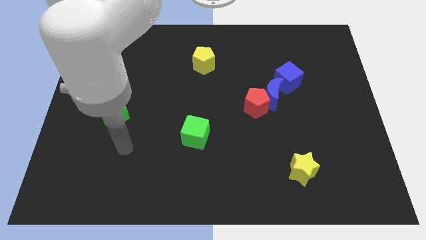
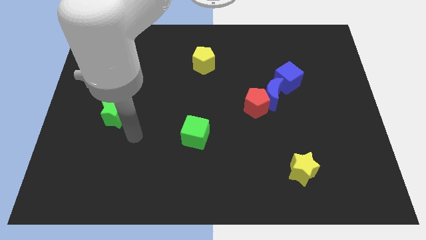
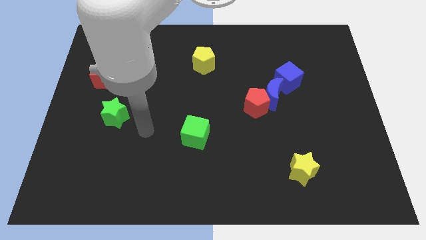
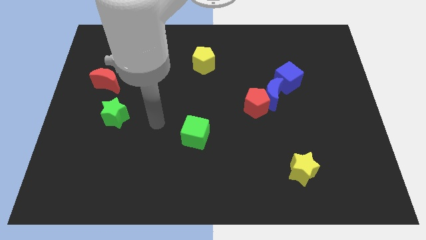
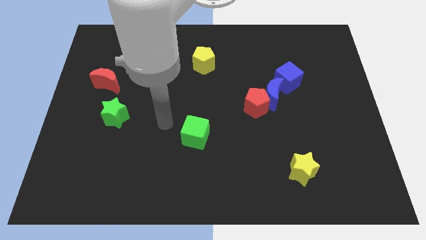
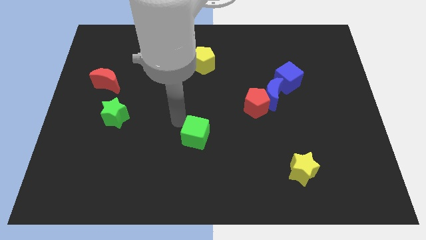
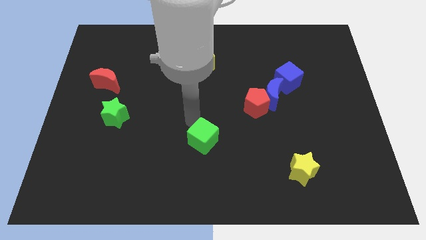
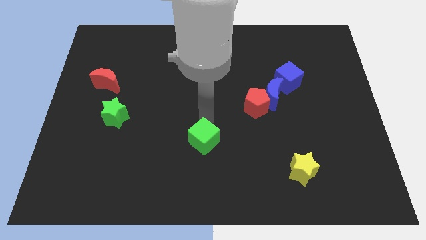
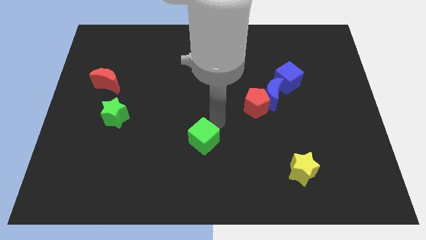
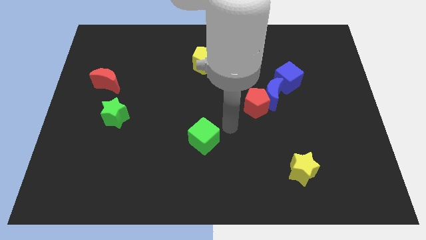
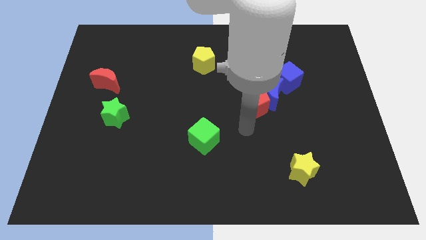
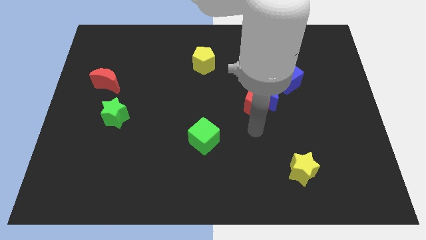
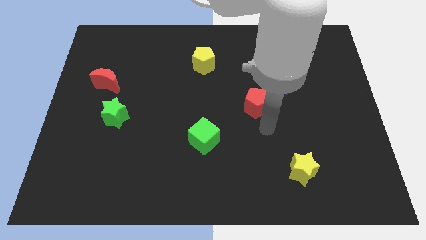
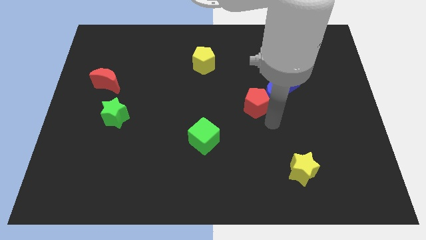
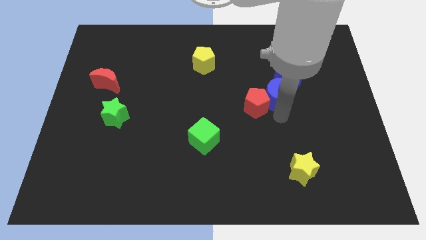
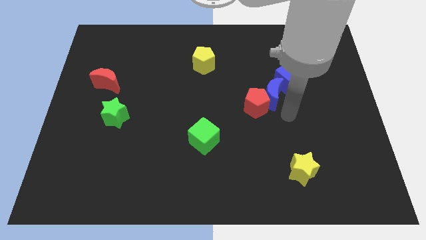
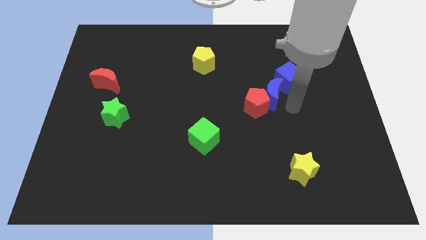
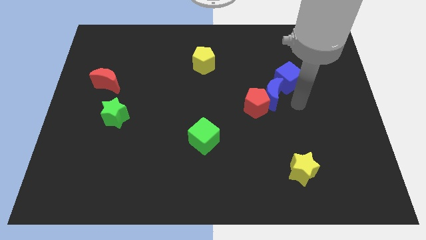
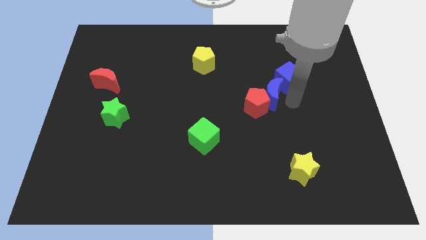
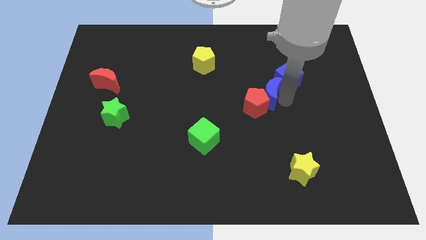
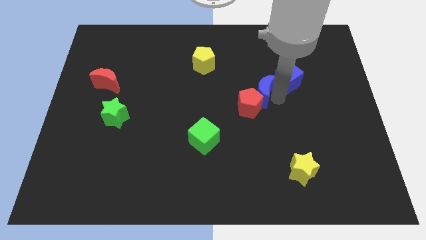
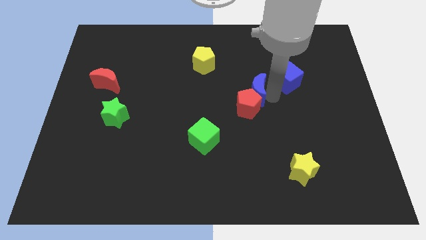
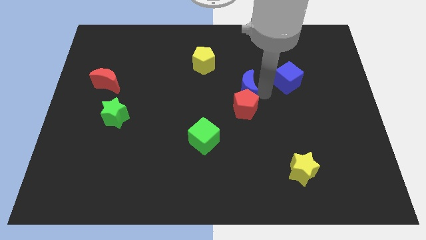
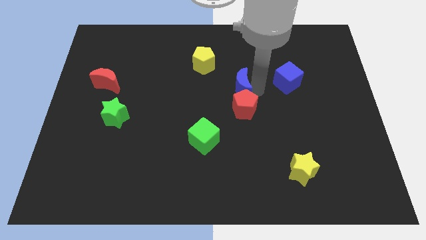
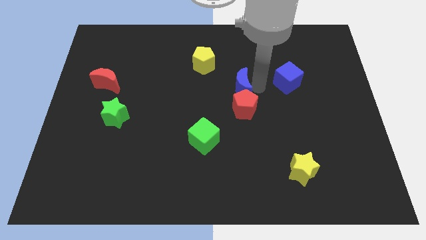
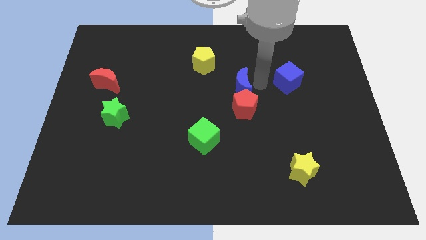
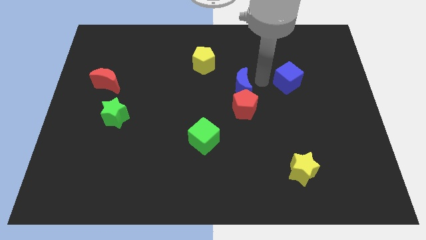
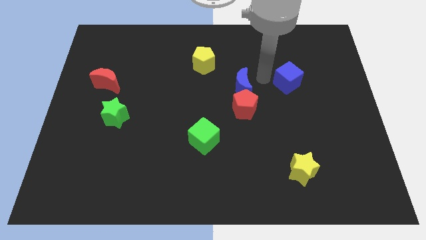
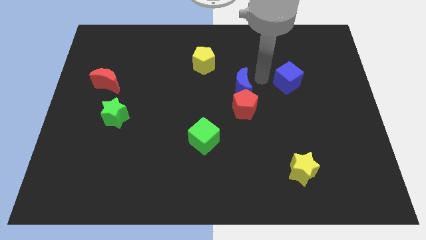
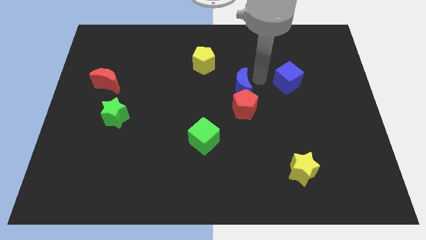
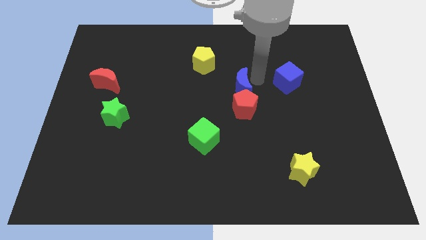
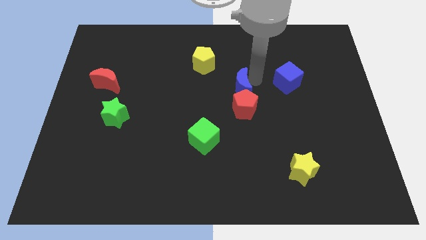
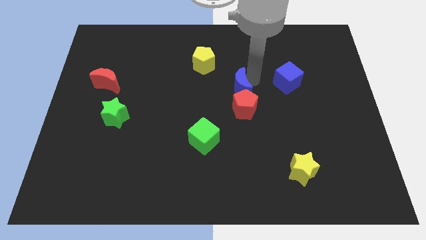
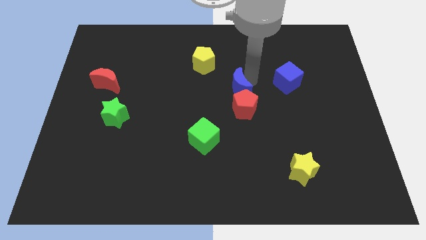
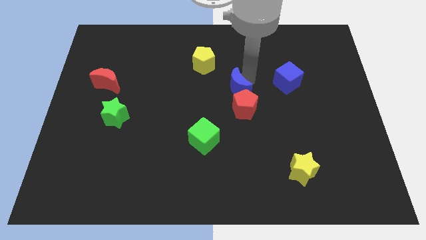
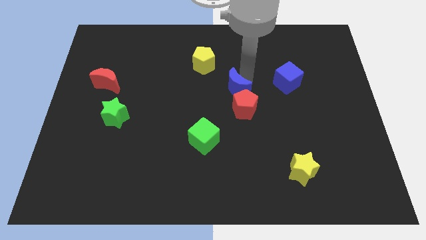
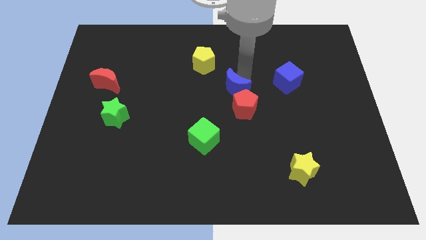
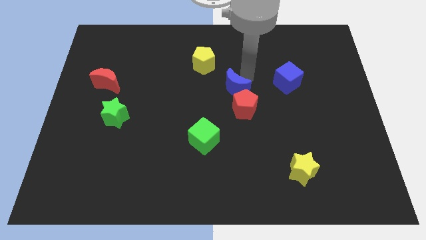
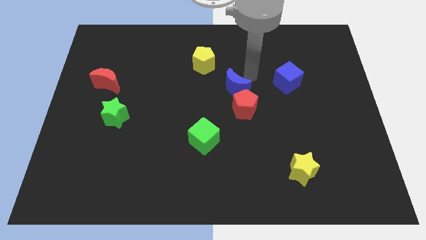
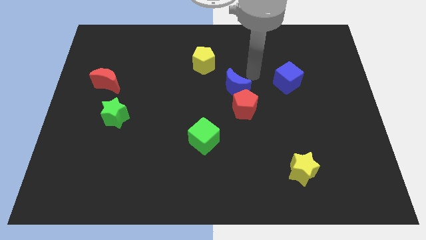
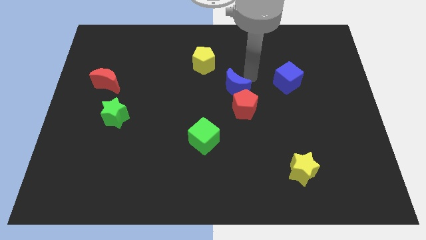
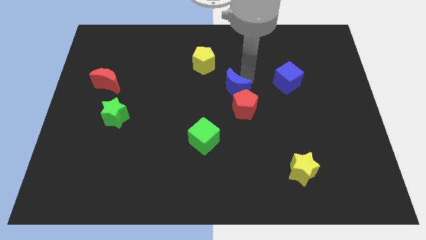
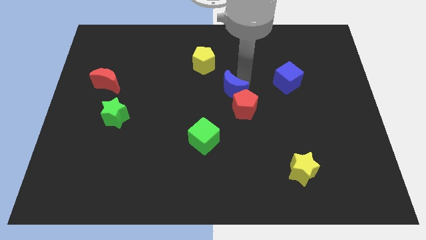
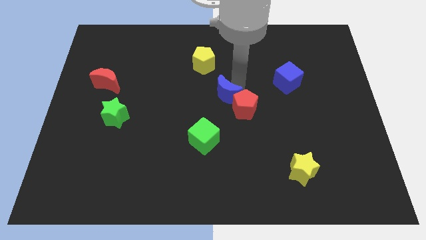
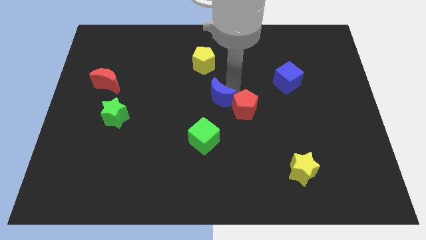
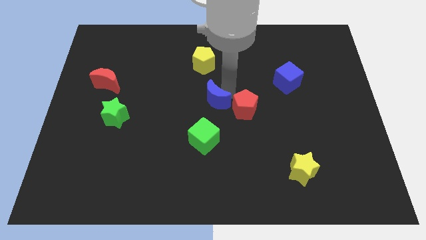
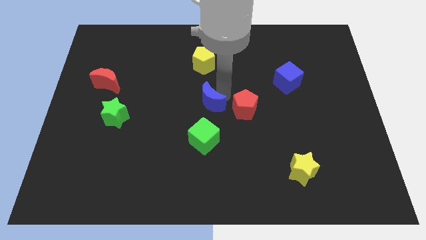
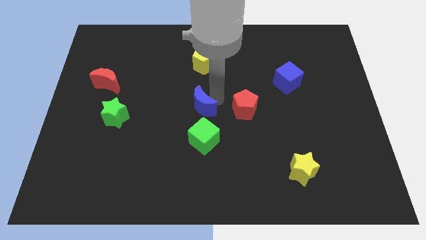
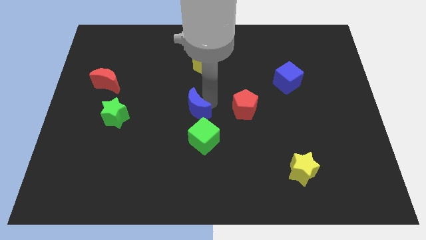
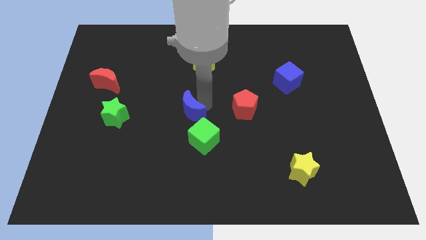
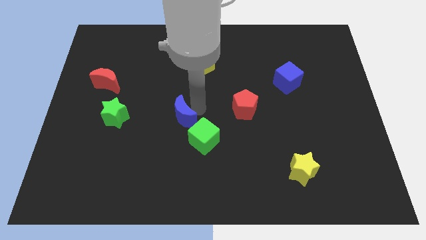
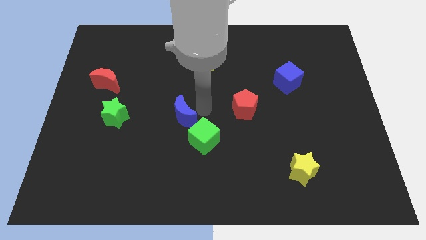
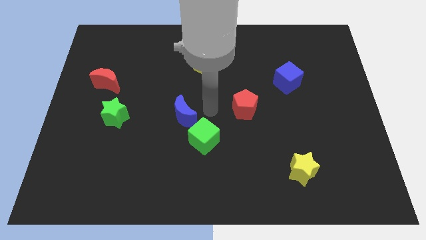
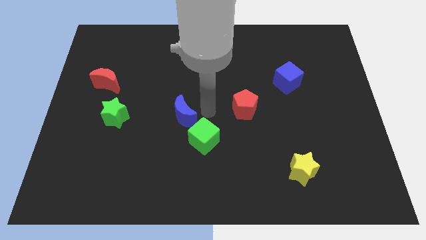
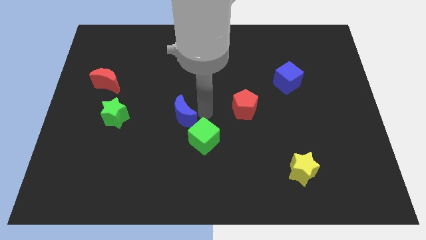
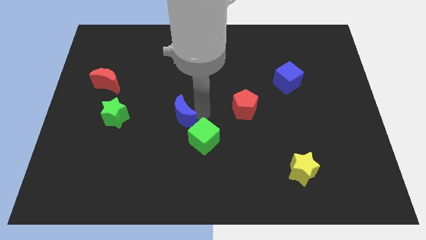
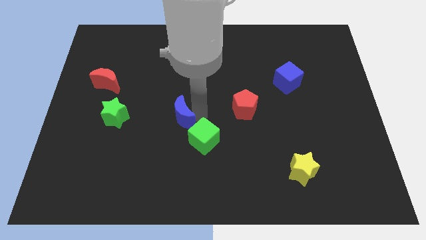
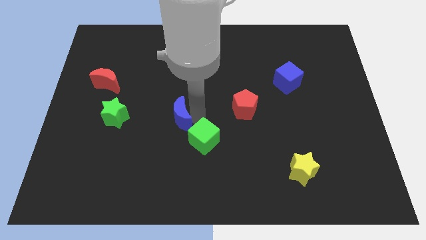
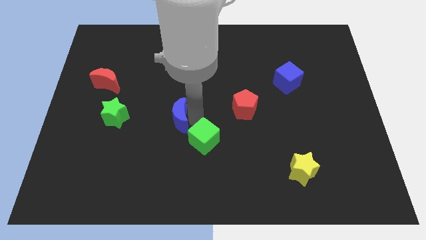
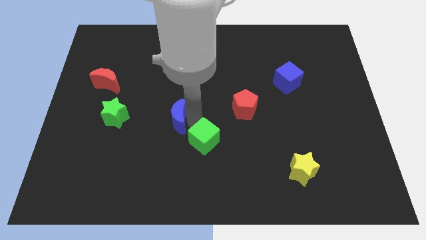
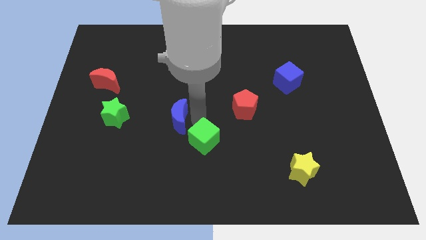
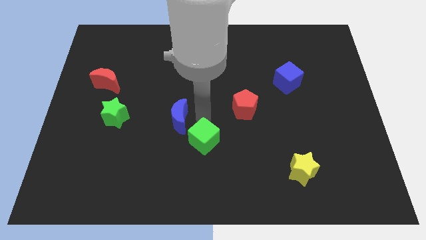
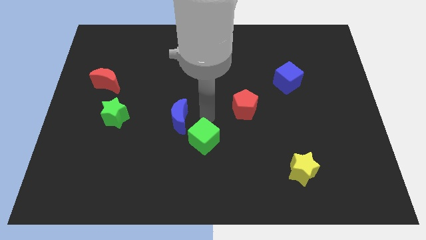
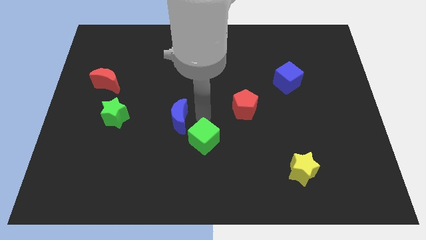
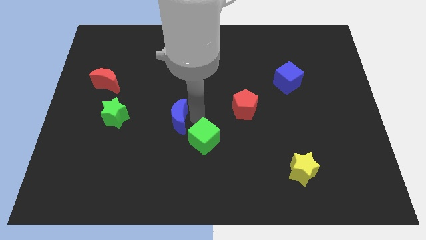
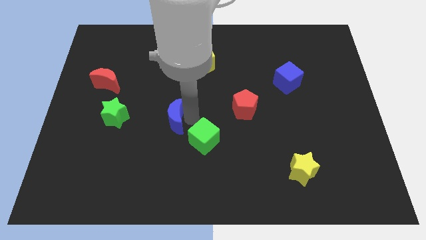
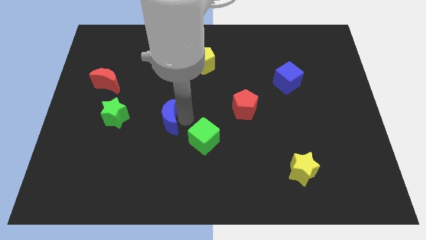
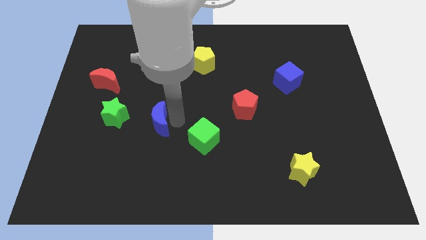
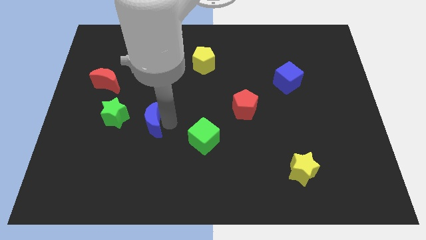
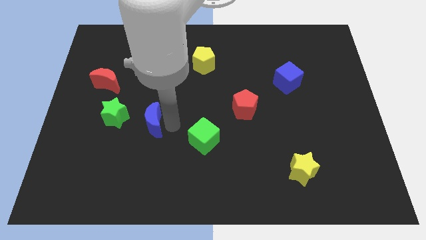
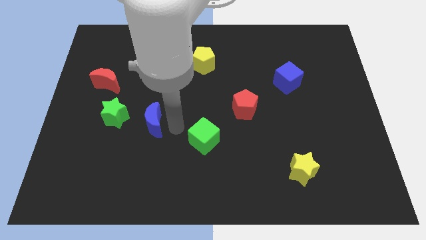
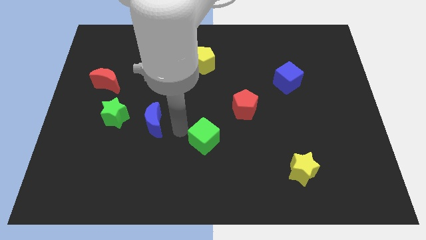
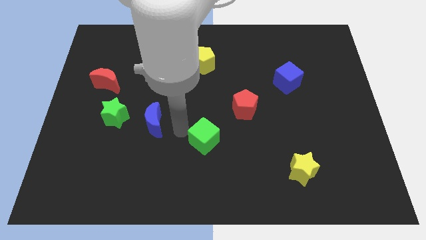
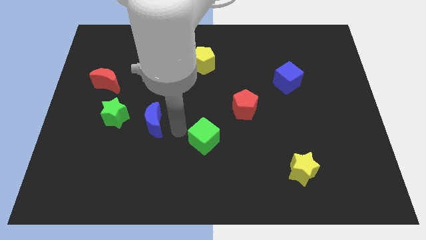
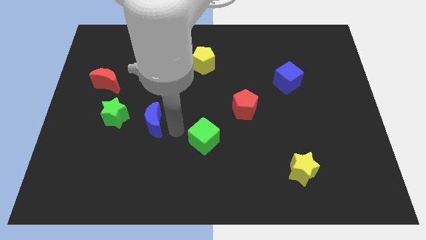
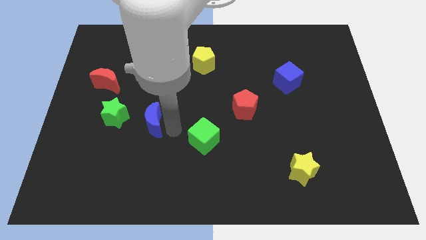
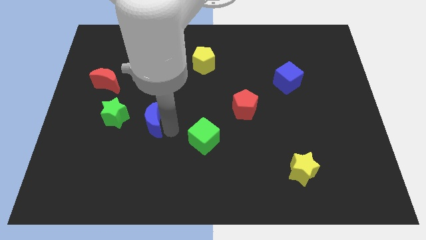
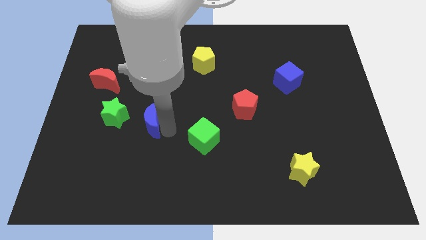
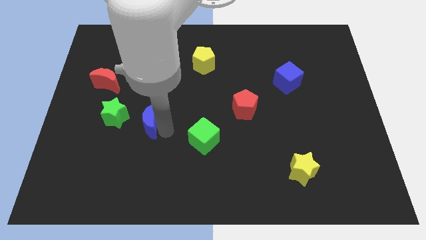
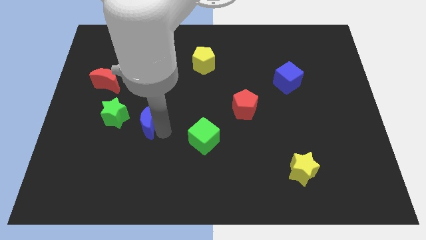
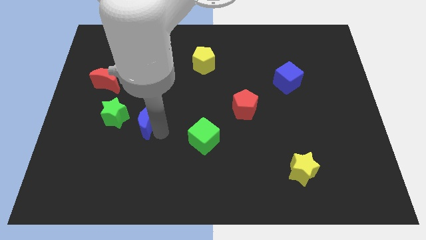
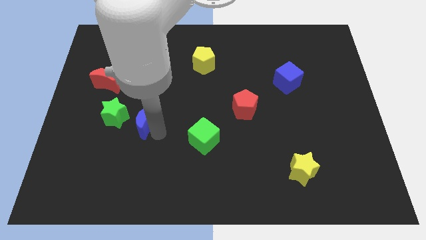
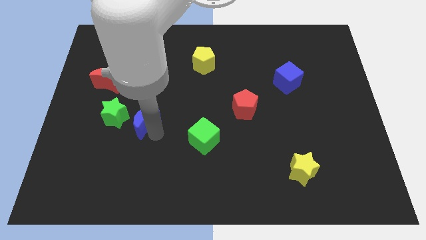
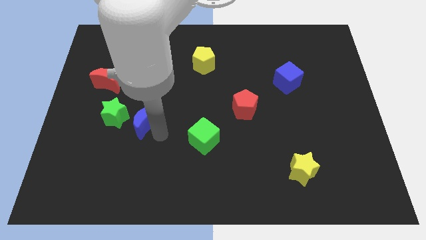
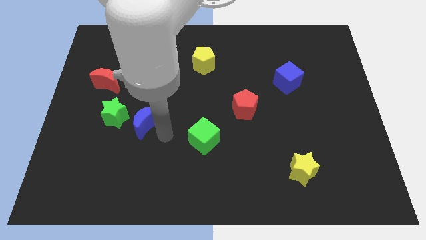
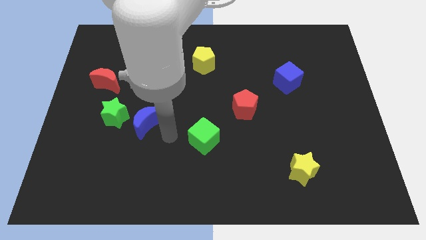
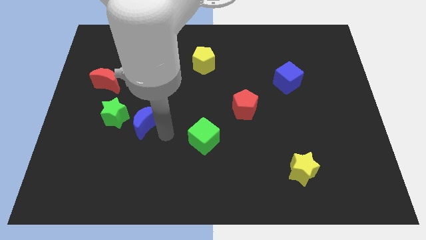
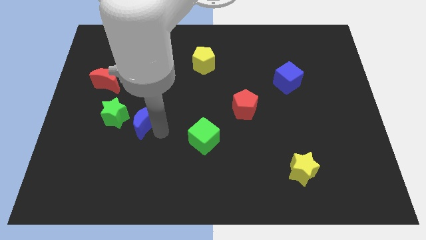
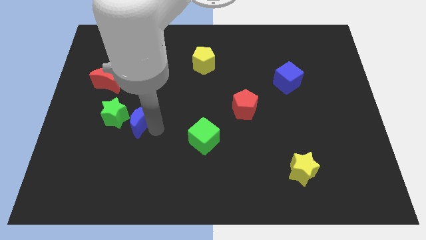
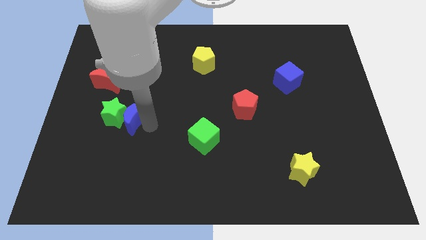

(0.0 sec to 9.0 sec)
put the blue moon close to the green star
